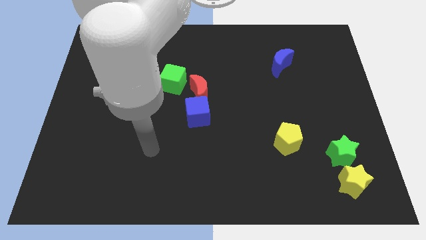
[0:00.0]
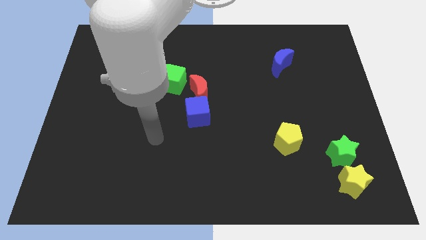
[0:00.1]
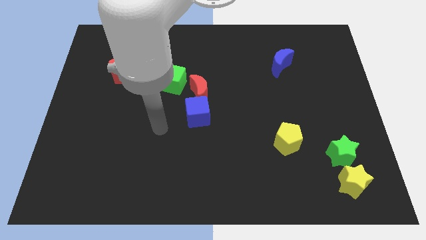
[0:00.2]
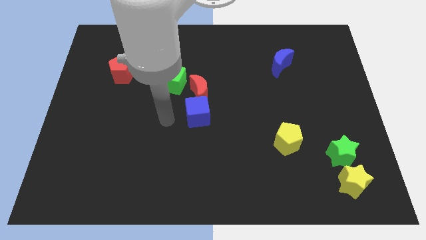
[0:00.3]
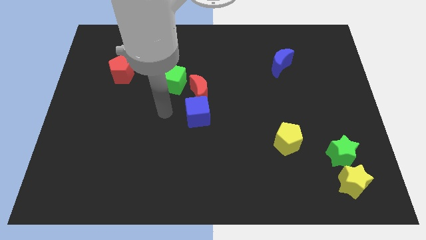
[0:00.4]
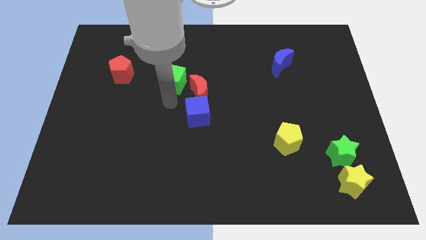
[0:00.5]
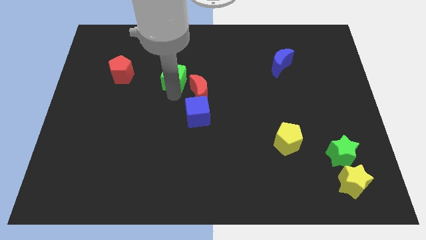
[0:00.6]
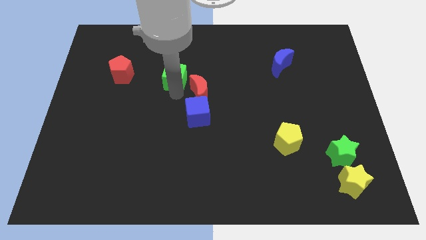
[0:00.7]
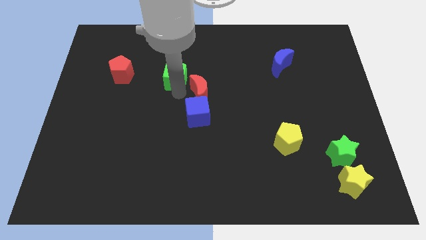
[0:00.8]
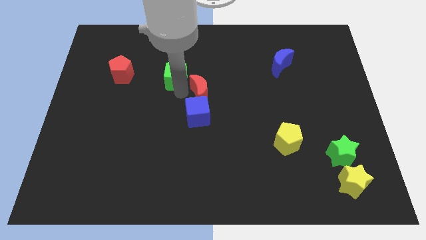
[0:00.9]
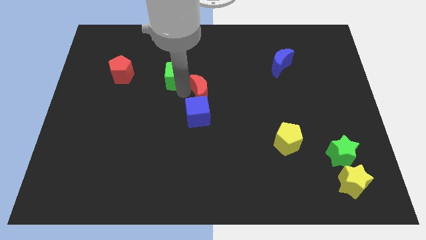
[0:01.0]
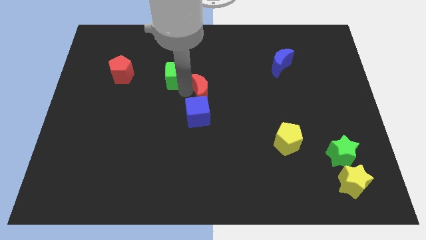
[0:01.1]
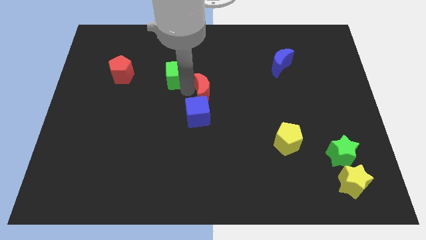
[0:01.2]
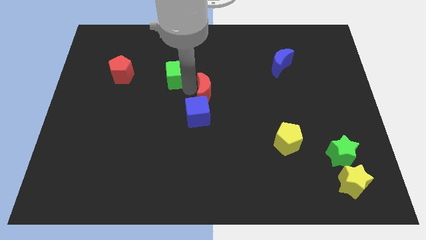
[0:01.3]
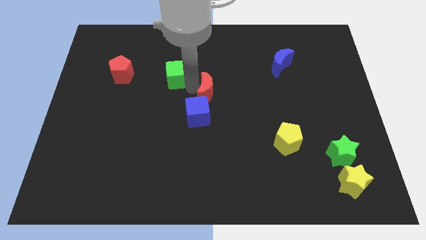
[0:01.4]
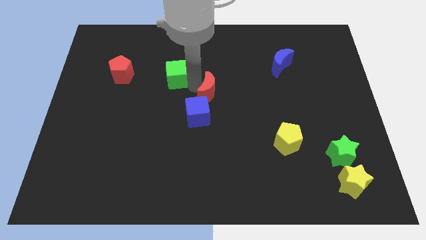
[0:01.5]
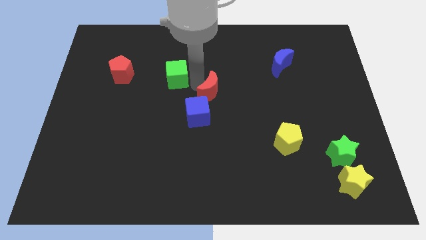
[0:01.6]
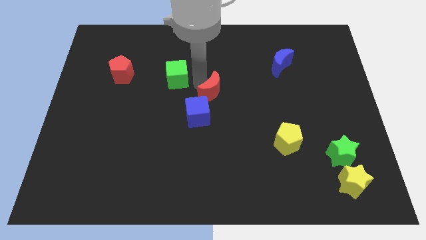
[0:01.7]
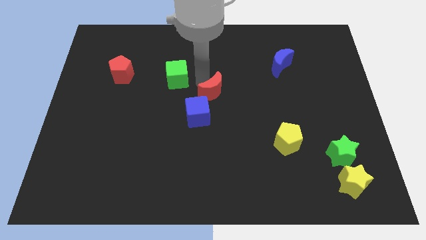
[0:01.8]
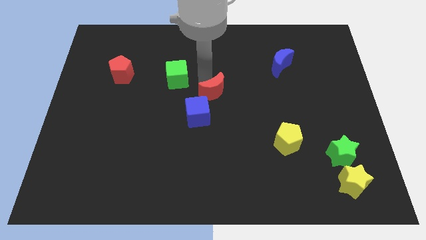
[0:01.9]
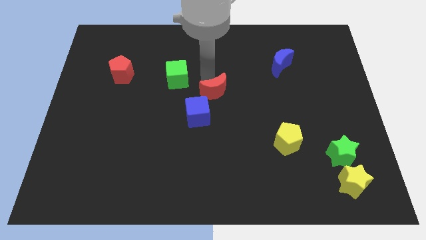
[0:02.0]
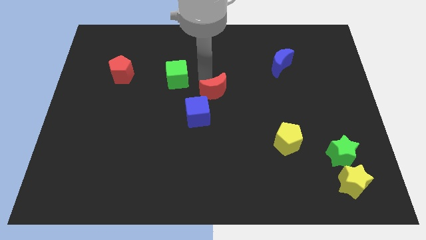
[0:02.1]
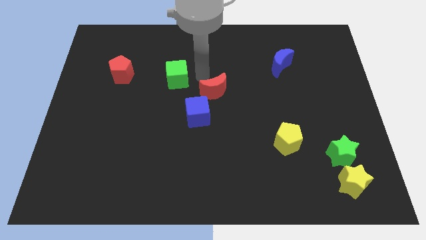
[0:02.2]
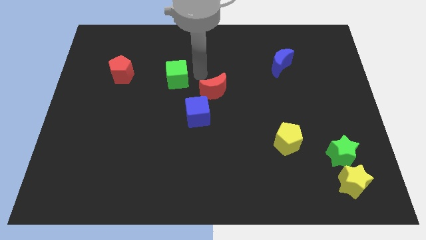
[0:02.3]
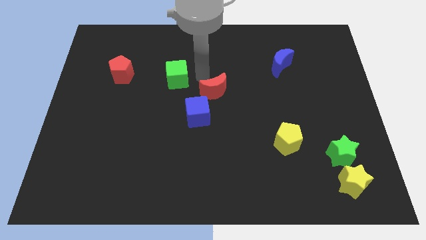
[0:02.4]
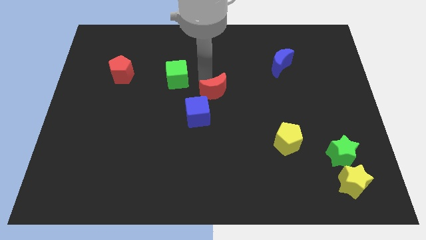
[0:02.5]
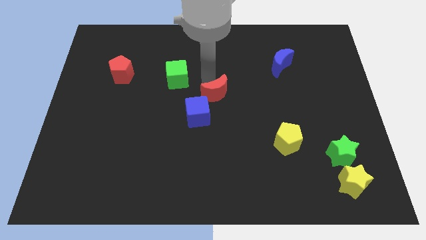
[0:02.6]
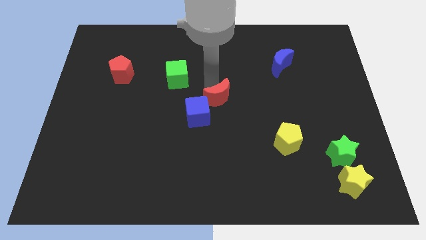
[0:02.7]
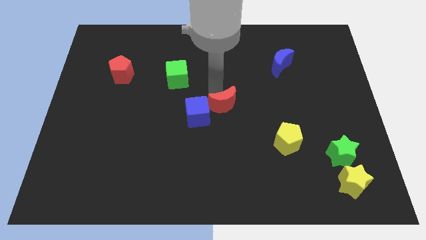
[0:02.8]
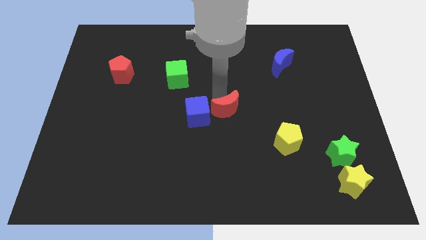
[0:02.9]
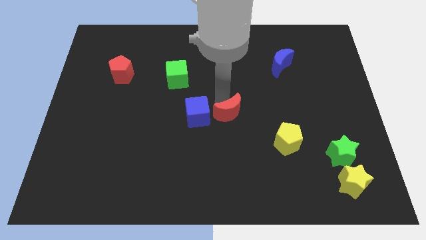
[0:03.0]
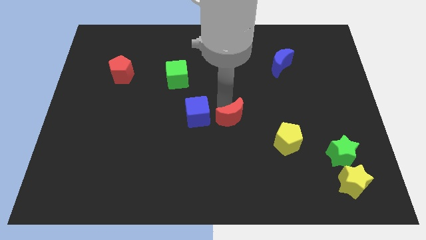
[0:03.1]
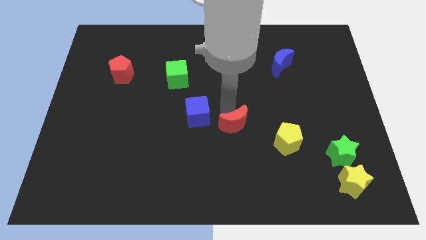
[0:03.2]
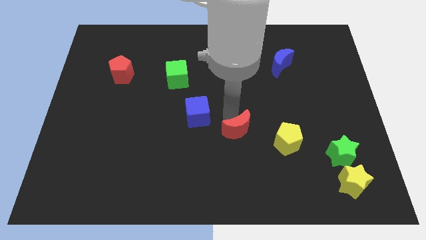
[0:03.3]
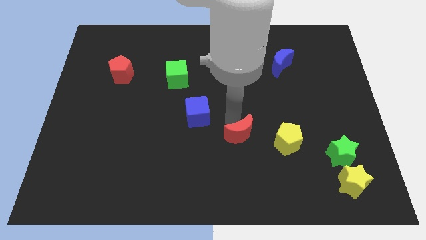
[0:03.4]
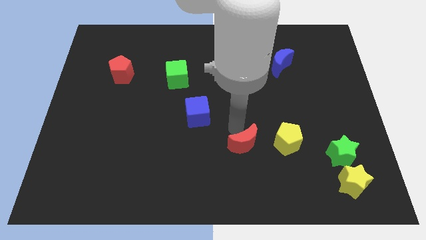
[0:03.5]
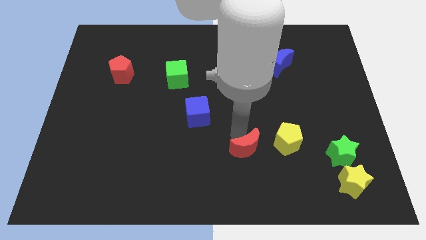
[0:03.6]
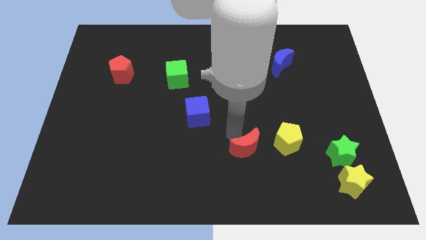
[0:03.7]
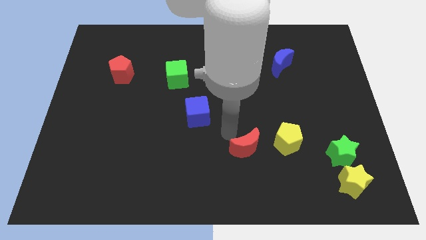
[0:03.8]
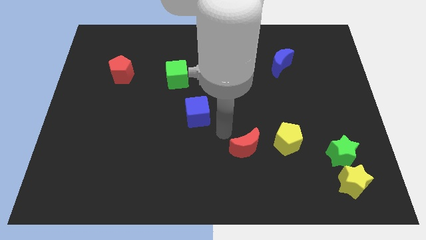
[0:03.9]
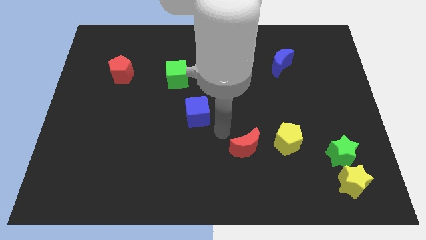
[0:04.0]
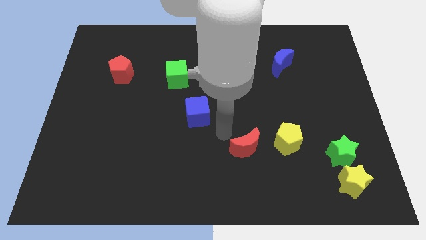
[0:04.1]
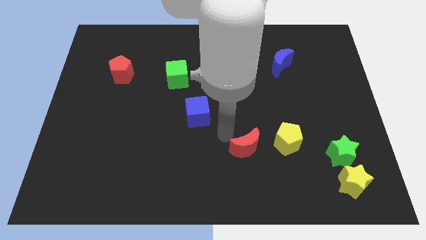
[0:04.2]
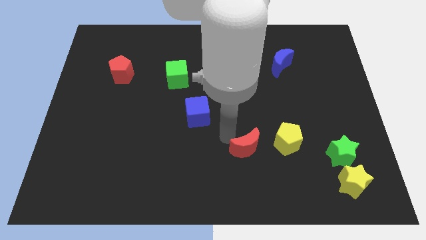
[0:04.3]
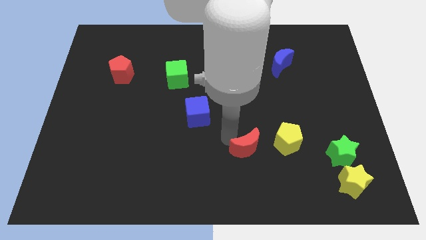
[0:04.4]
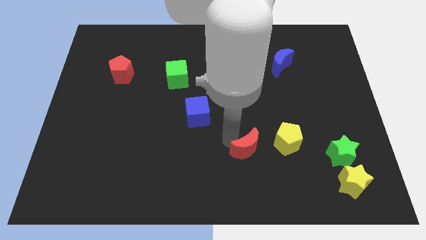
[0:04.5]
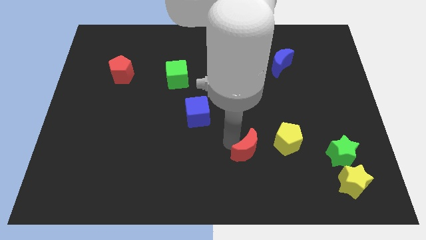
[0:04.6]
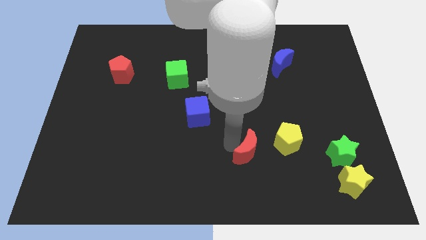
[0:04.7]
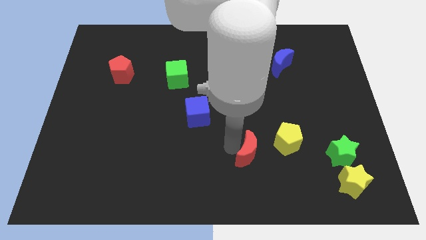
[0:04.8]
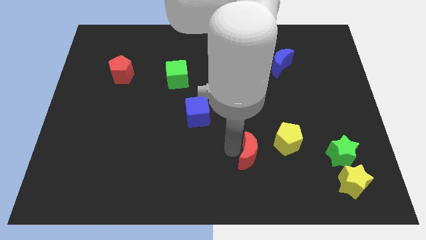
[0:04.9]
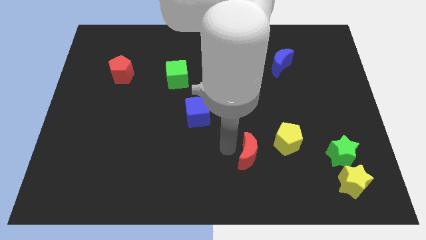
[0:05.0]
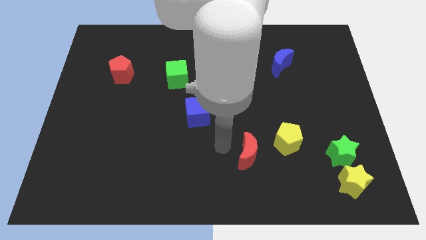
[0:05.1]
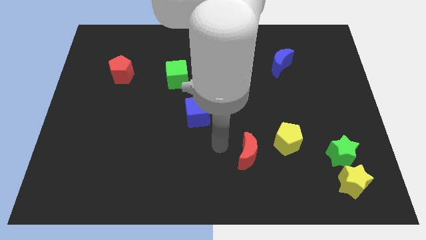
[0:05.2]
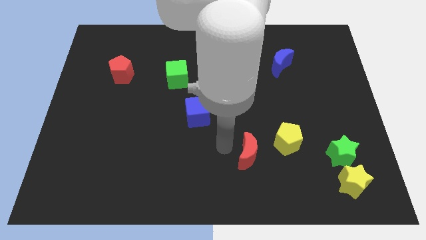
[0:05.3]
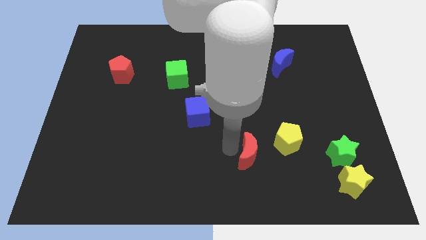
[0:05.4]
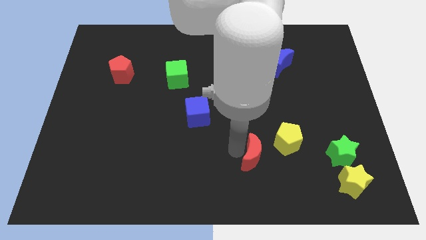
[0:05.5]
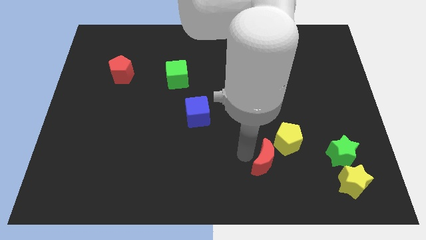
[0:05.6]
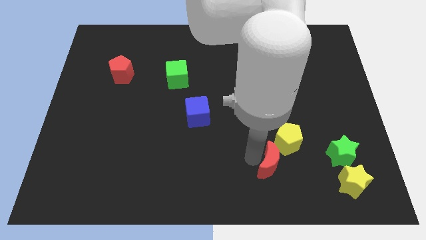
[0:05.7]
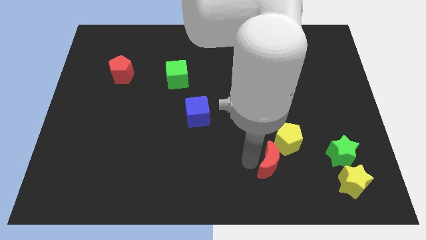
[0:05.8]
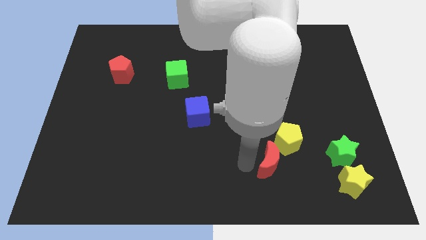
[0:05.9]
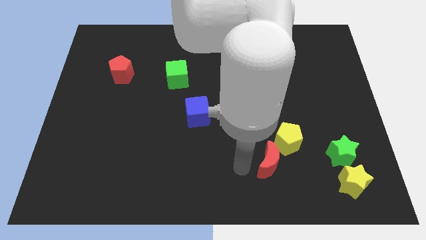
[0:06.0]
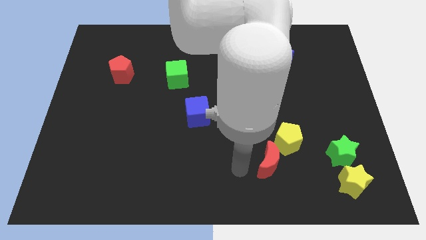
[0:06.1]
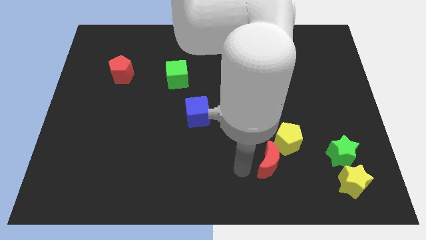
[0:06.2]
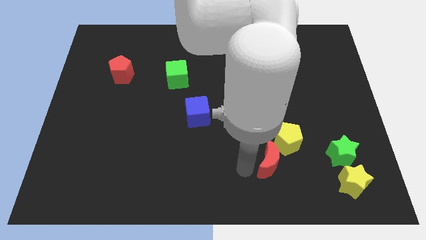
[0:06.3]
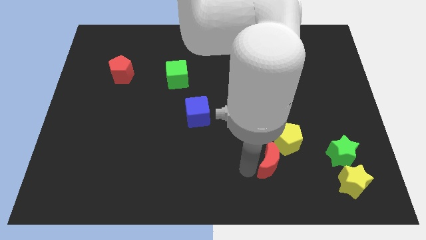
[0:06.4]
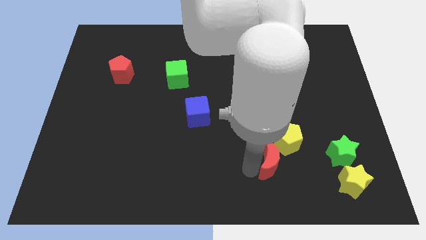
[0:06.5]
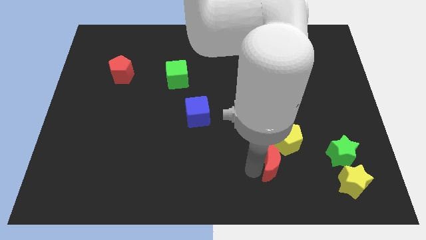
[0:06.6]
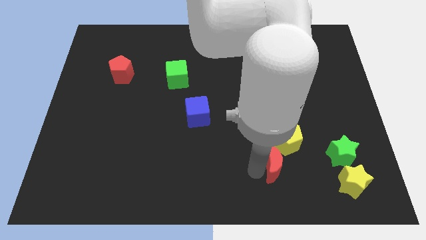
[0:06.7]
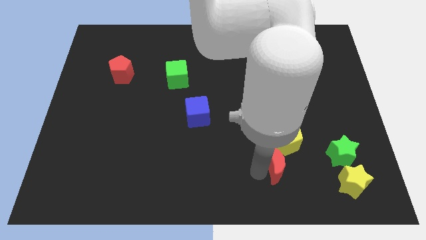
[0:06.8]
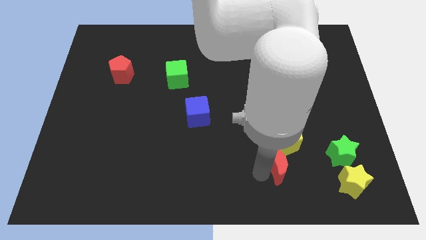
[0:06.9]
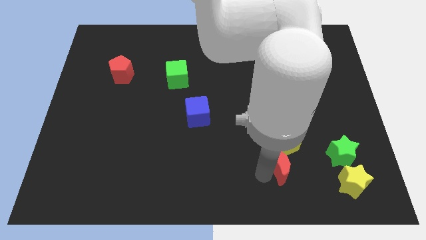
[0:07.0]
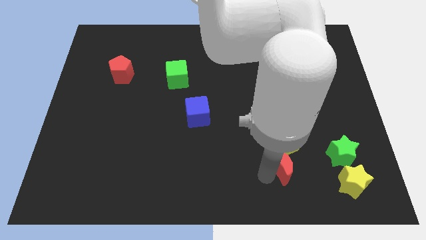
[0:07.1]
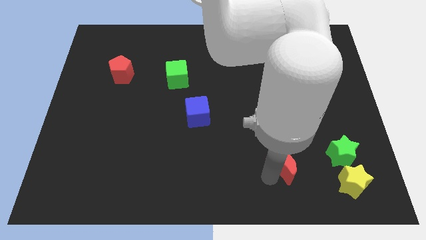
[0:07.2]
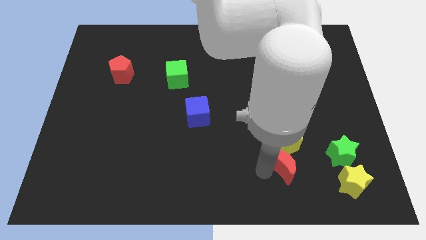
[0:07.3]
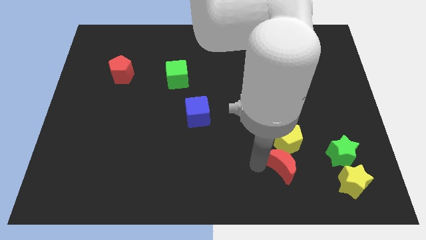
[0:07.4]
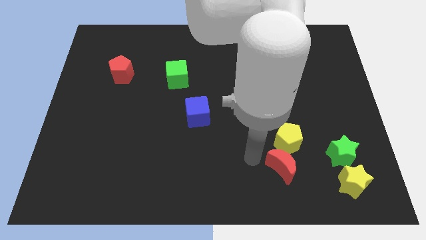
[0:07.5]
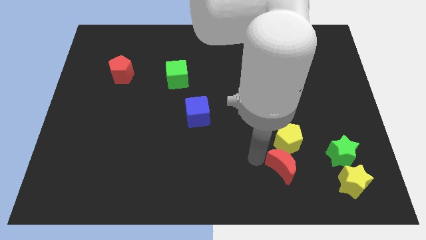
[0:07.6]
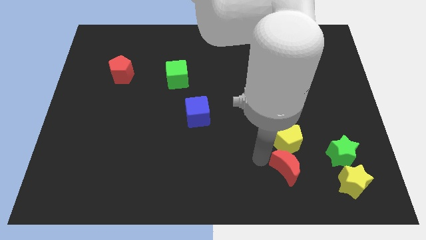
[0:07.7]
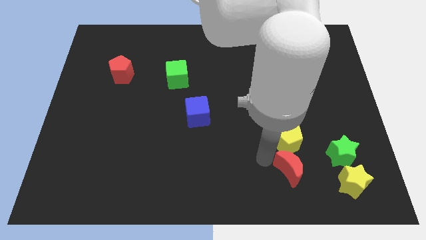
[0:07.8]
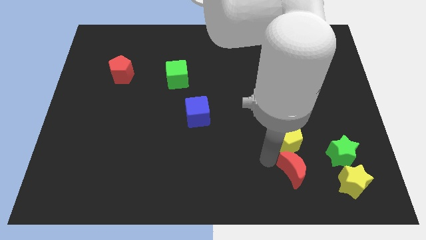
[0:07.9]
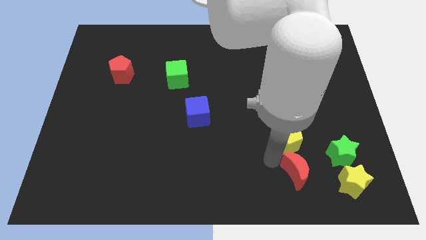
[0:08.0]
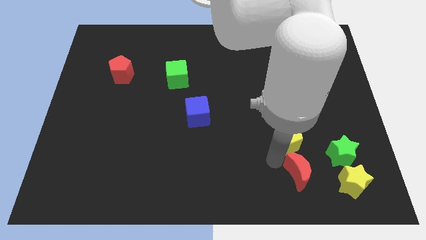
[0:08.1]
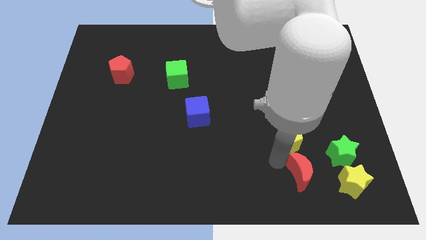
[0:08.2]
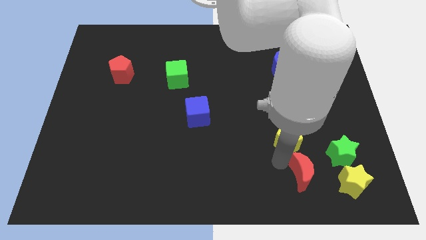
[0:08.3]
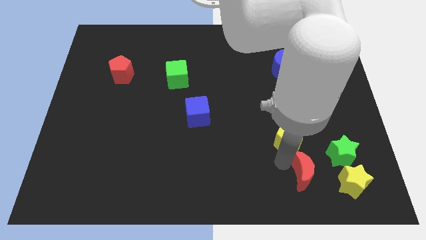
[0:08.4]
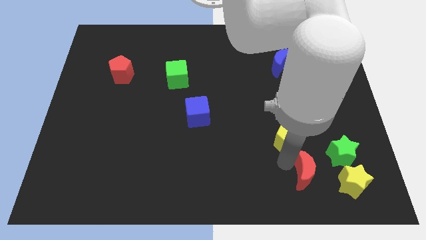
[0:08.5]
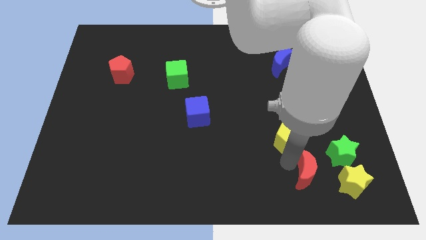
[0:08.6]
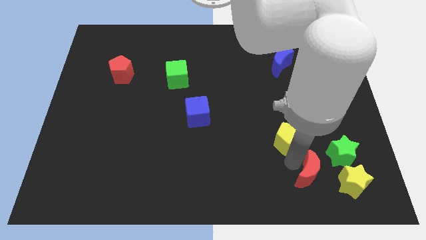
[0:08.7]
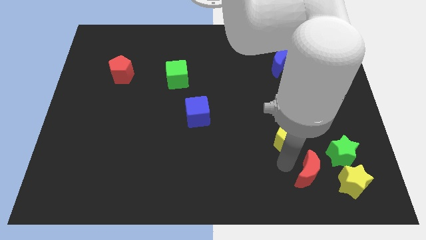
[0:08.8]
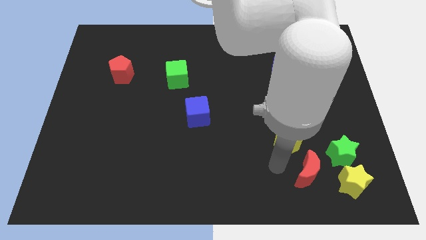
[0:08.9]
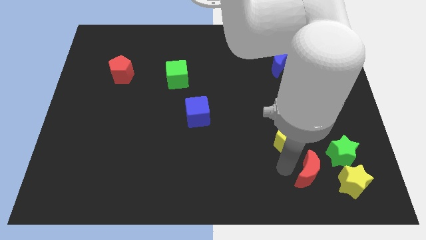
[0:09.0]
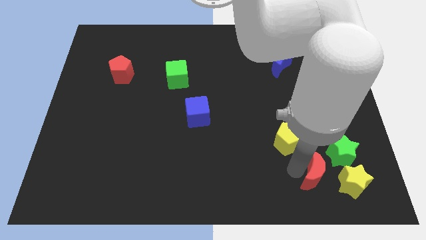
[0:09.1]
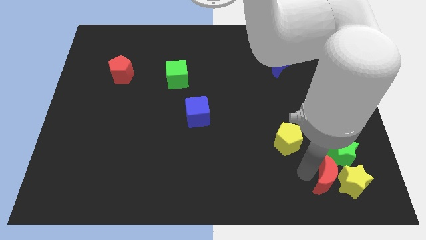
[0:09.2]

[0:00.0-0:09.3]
slide the red moon next to the yellow star
